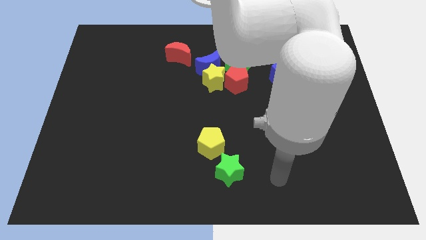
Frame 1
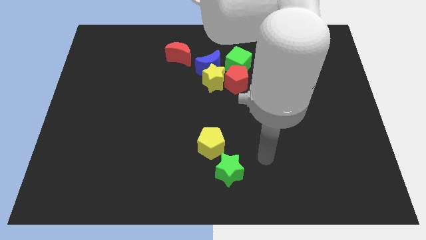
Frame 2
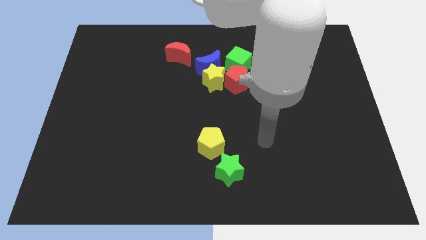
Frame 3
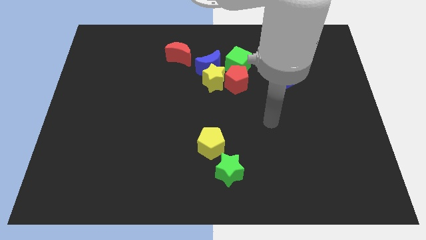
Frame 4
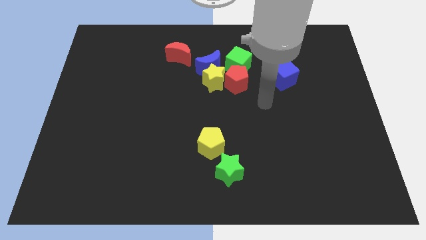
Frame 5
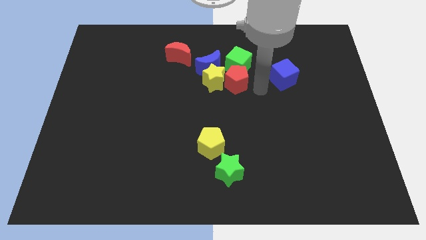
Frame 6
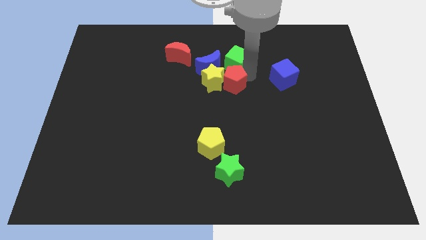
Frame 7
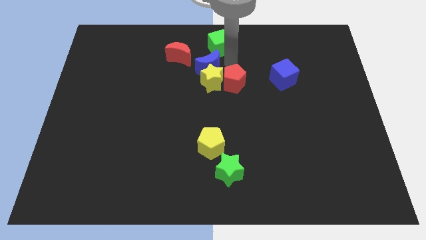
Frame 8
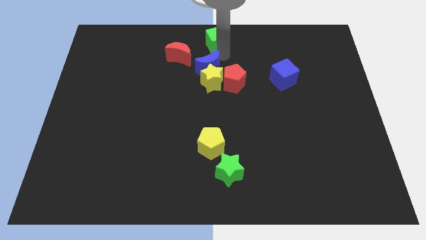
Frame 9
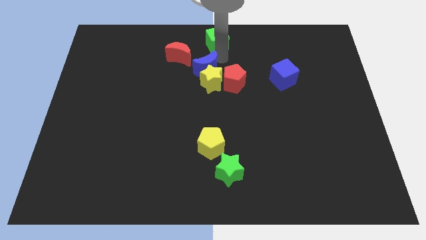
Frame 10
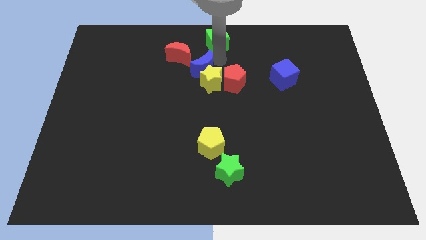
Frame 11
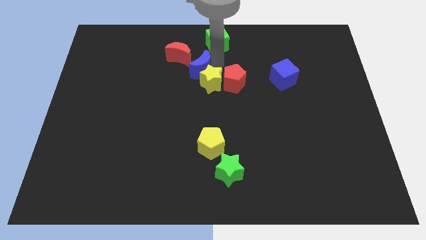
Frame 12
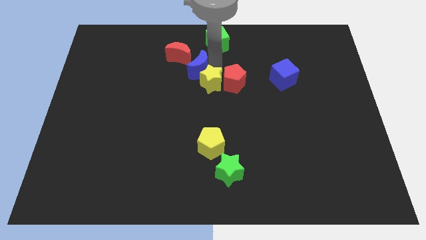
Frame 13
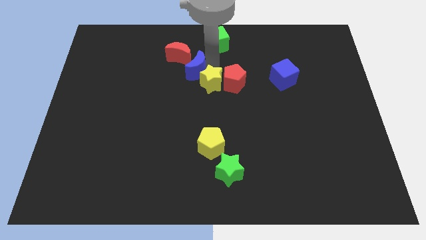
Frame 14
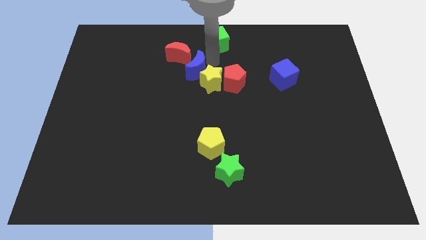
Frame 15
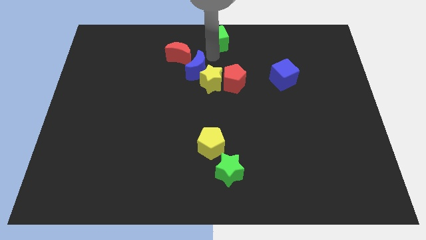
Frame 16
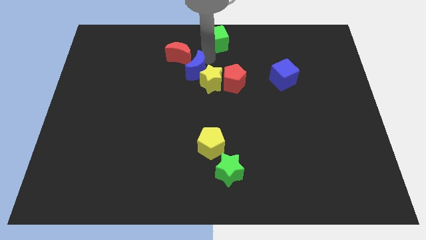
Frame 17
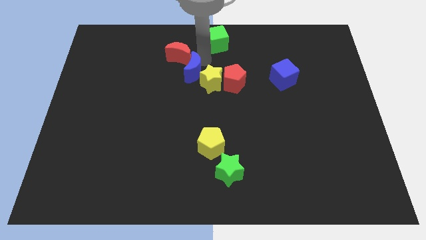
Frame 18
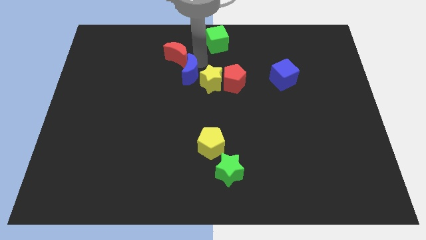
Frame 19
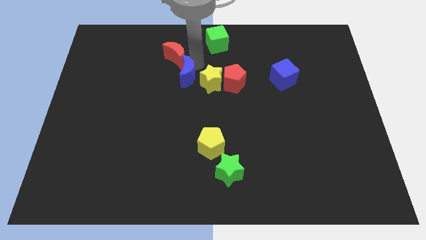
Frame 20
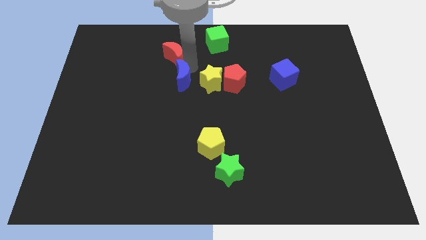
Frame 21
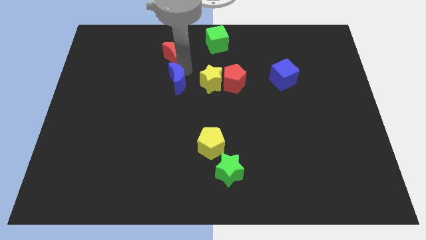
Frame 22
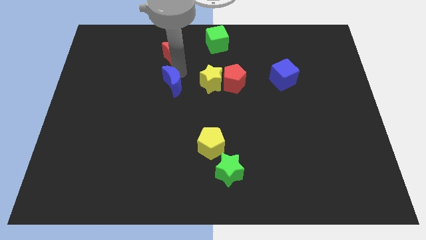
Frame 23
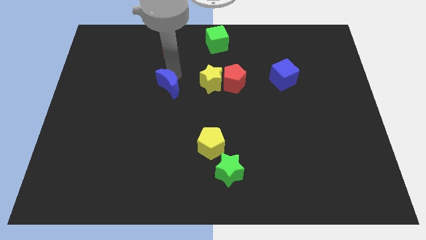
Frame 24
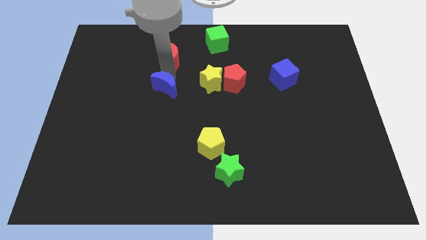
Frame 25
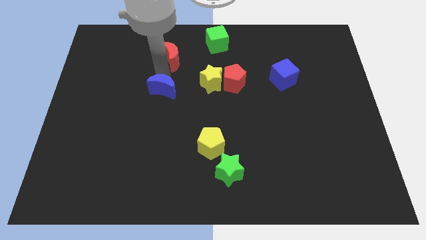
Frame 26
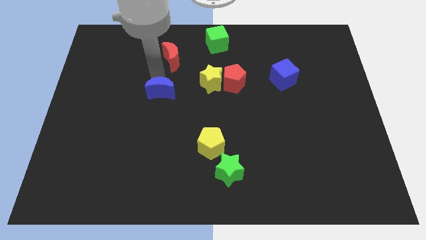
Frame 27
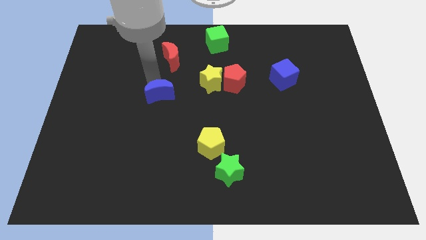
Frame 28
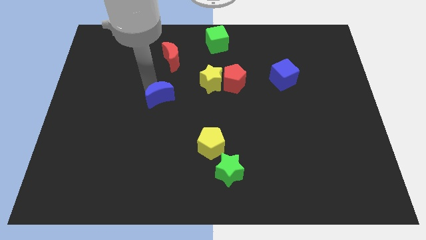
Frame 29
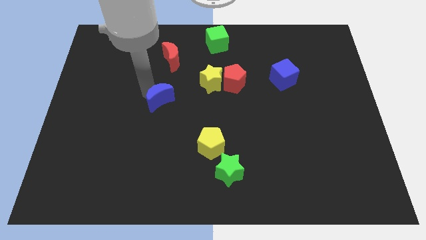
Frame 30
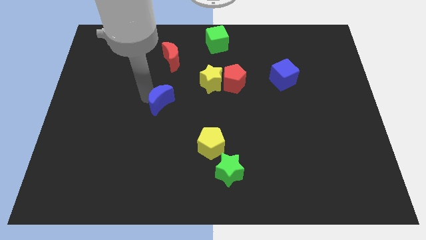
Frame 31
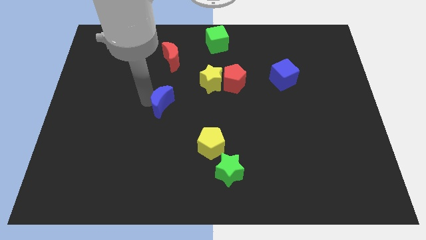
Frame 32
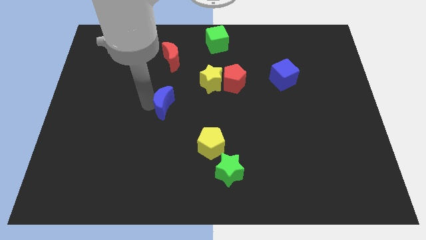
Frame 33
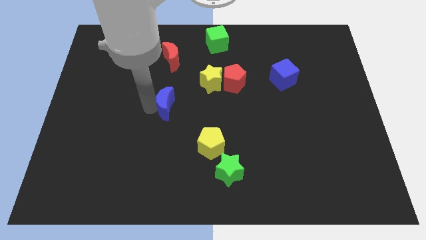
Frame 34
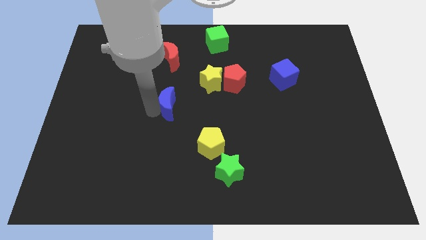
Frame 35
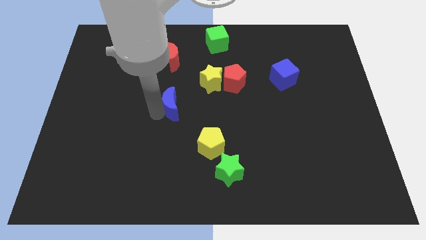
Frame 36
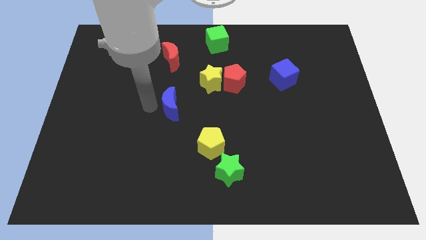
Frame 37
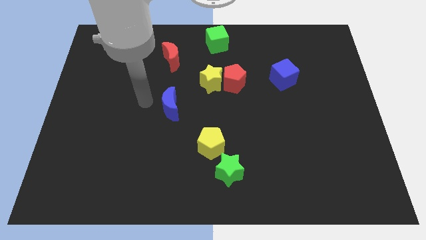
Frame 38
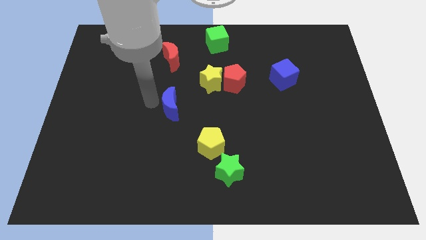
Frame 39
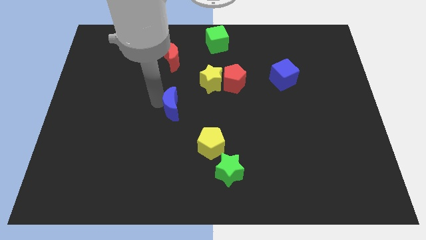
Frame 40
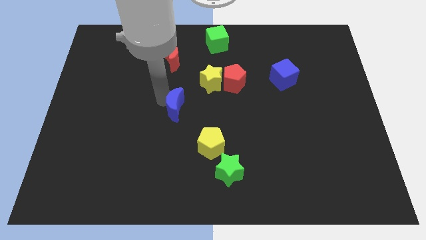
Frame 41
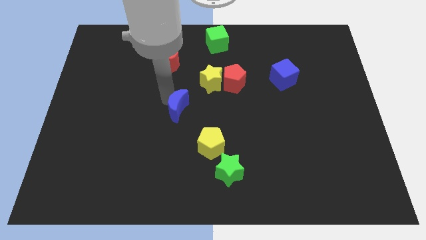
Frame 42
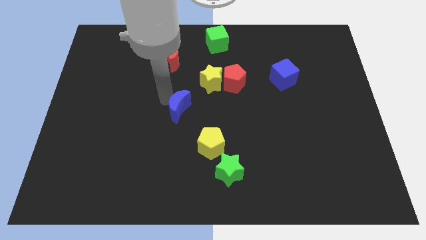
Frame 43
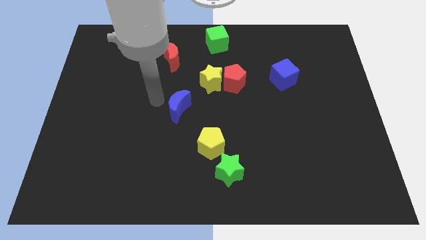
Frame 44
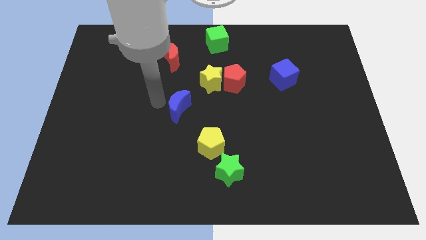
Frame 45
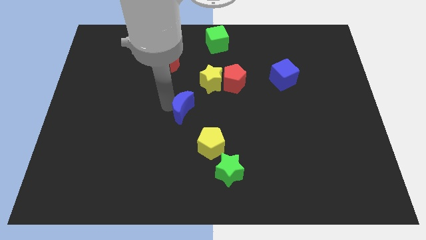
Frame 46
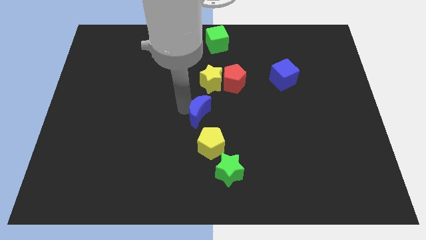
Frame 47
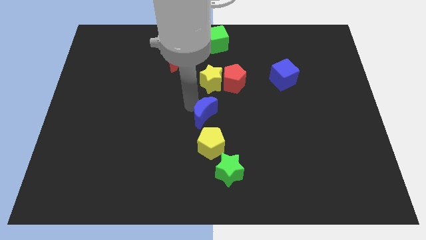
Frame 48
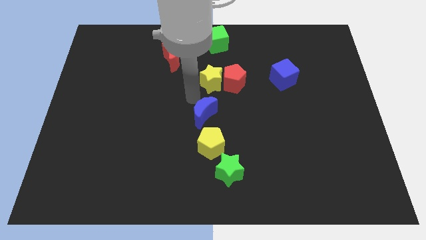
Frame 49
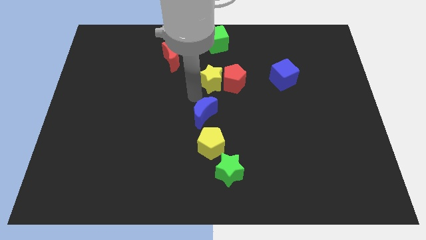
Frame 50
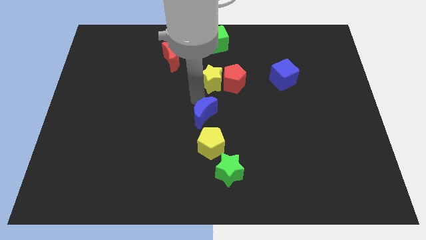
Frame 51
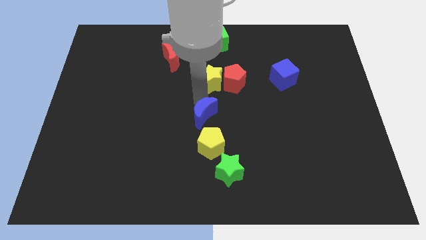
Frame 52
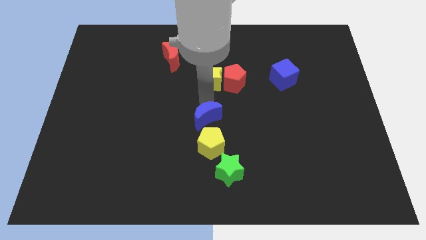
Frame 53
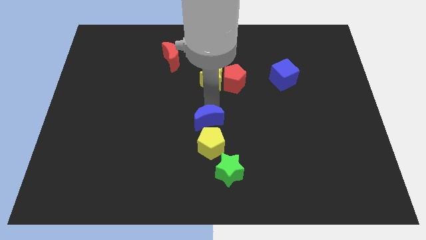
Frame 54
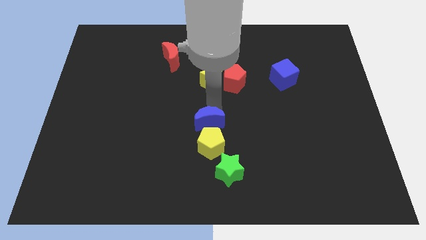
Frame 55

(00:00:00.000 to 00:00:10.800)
slide the blue moon to the yellow pentagon

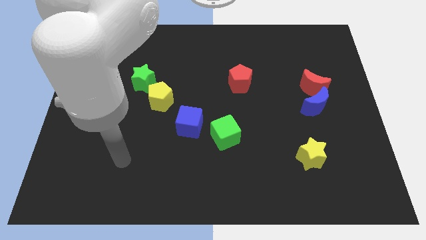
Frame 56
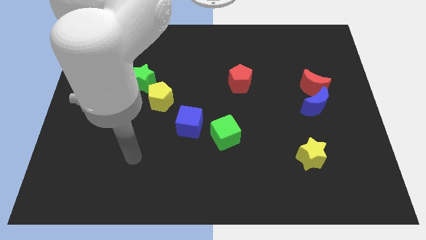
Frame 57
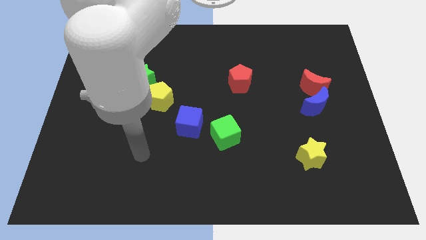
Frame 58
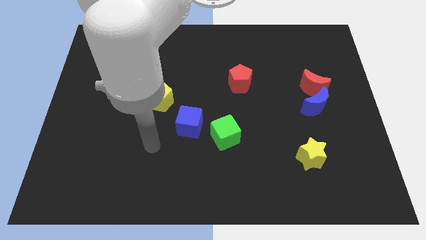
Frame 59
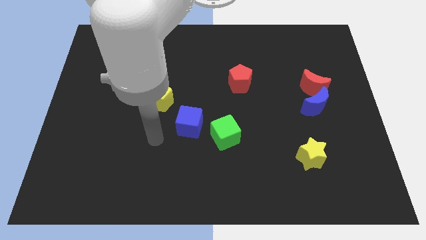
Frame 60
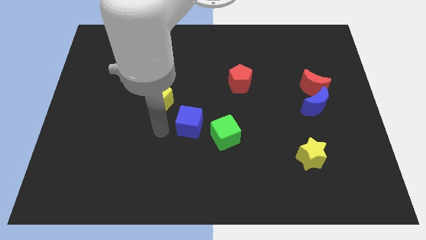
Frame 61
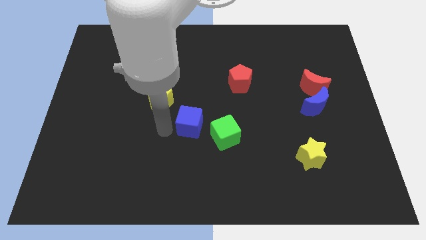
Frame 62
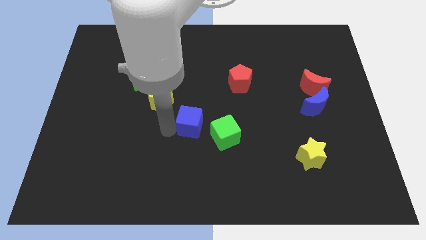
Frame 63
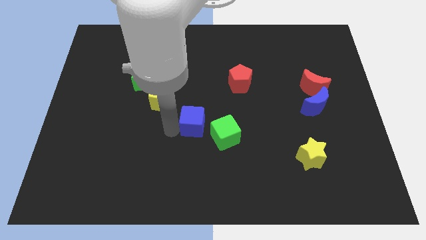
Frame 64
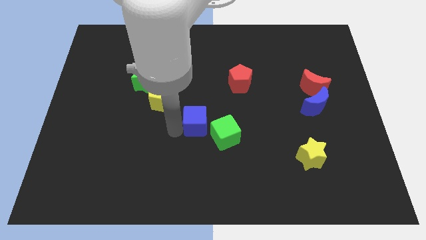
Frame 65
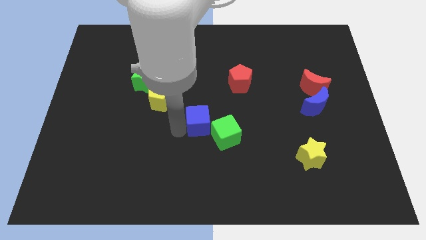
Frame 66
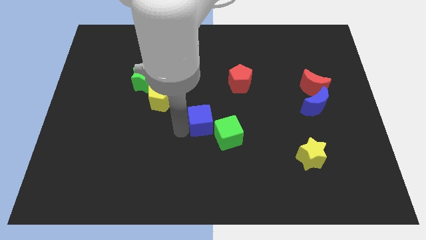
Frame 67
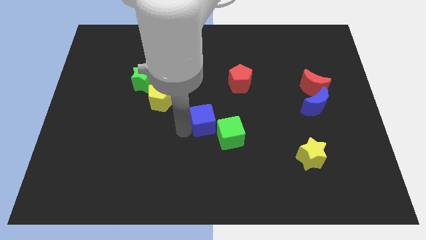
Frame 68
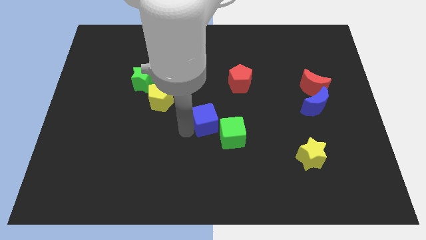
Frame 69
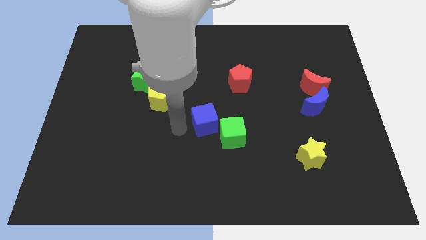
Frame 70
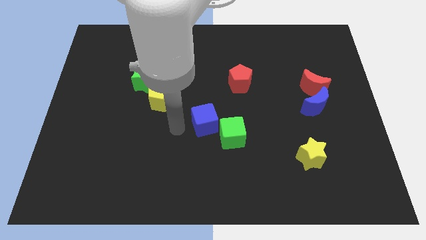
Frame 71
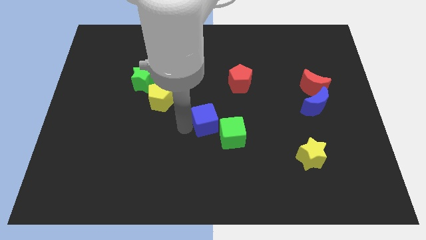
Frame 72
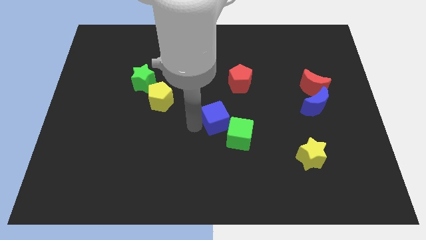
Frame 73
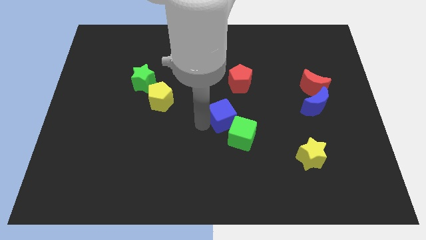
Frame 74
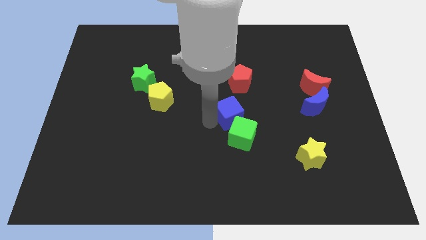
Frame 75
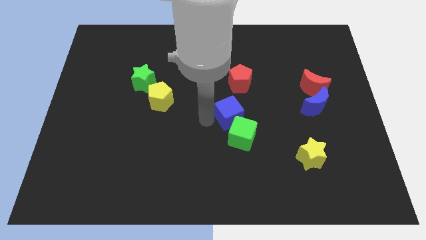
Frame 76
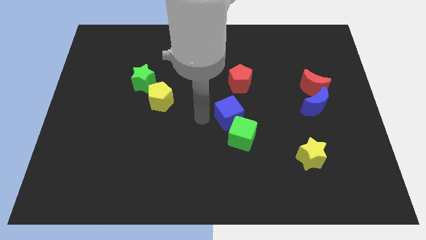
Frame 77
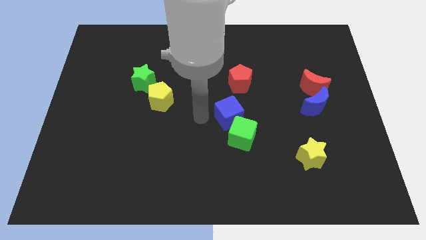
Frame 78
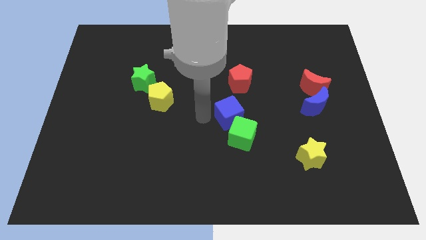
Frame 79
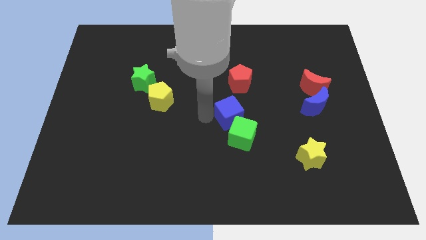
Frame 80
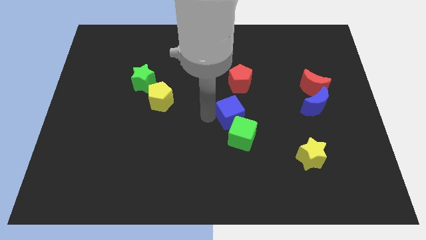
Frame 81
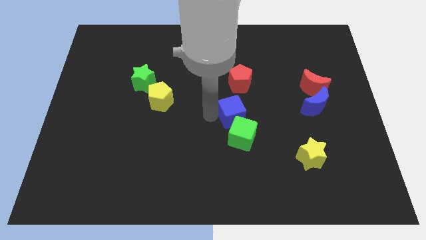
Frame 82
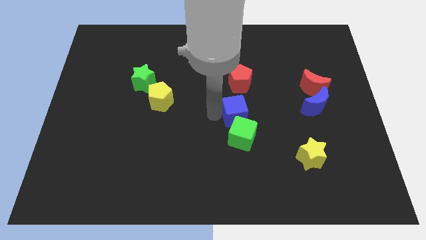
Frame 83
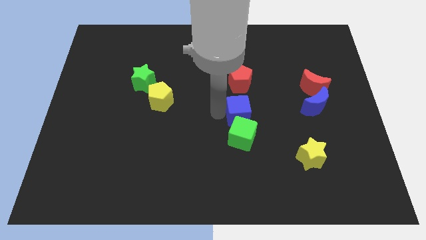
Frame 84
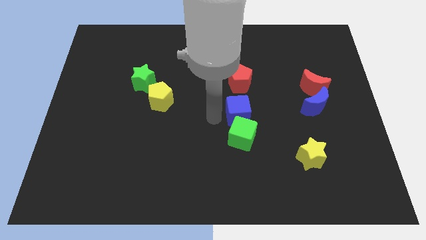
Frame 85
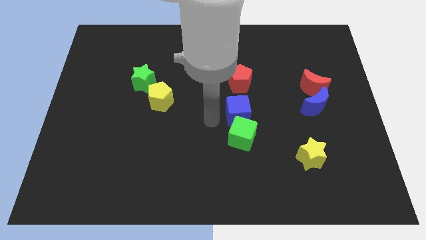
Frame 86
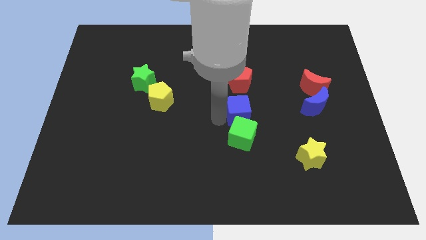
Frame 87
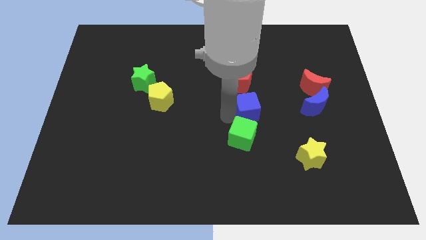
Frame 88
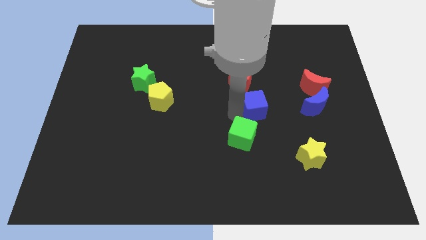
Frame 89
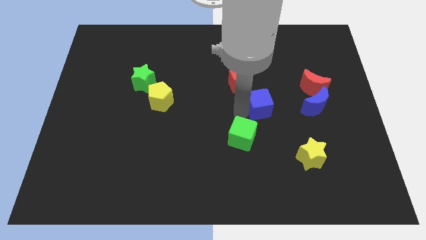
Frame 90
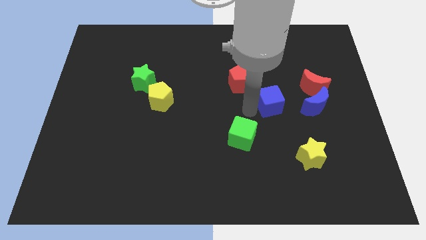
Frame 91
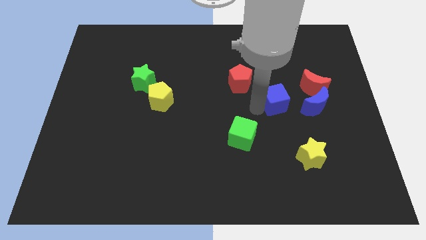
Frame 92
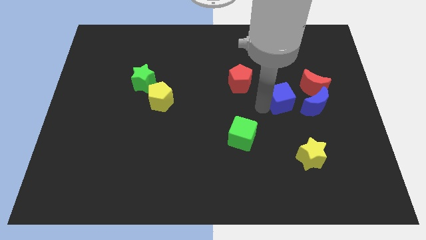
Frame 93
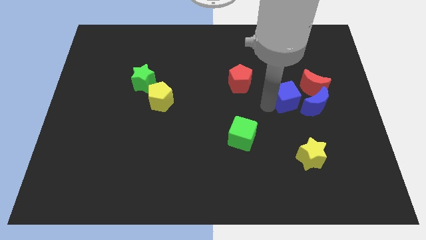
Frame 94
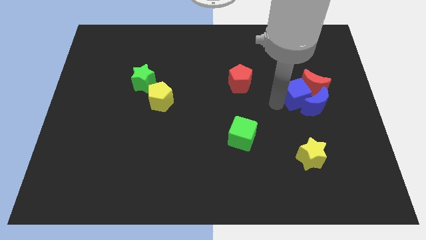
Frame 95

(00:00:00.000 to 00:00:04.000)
push the blue cube to the red moon
